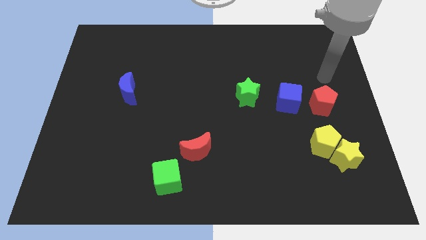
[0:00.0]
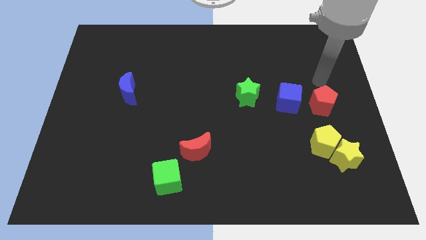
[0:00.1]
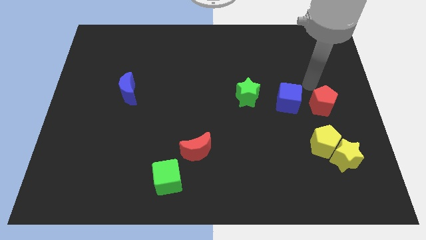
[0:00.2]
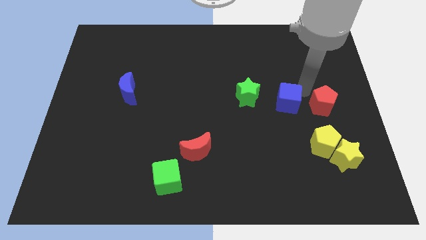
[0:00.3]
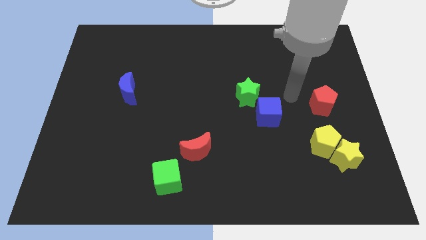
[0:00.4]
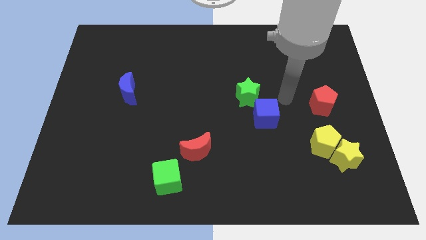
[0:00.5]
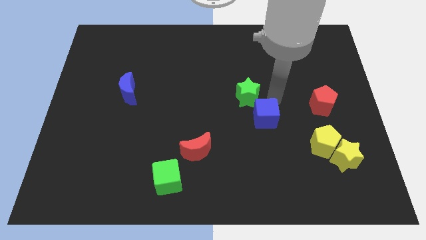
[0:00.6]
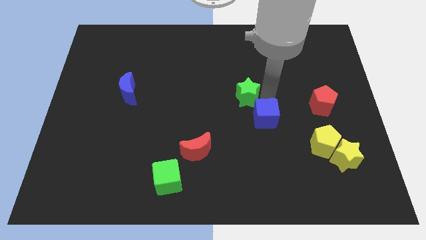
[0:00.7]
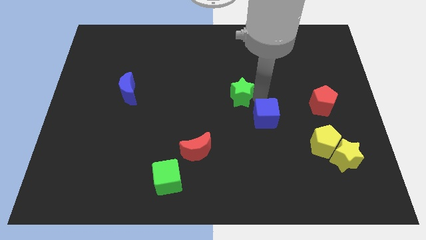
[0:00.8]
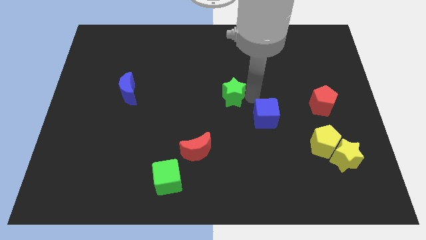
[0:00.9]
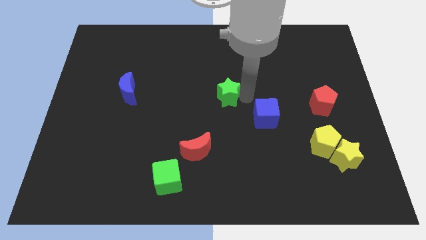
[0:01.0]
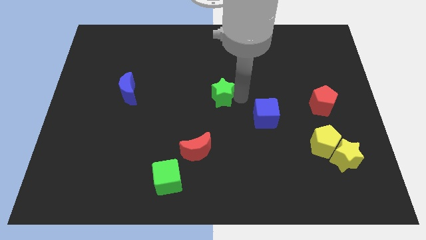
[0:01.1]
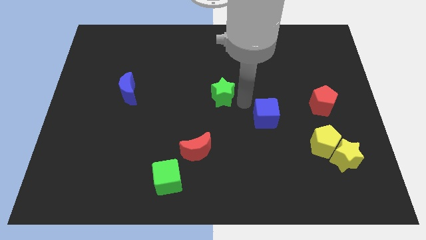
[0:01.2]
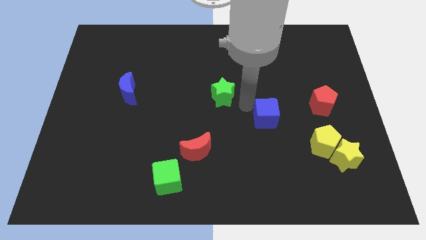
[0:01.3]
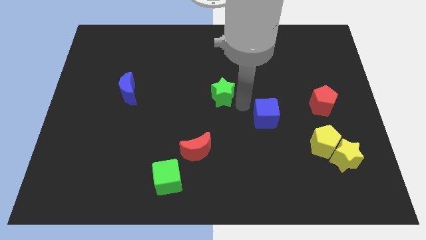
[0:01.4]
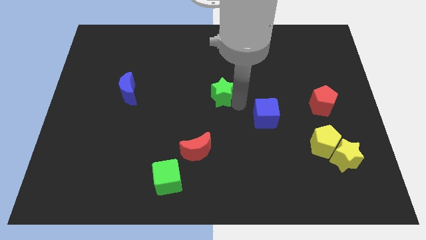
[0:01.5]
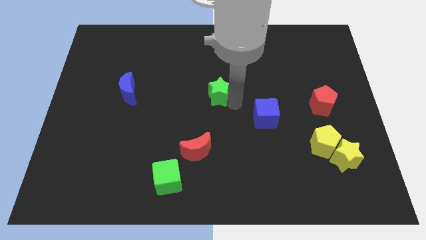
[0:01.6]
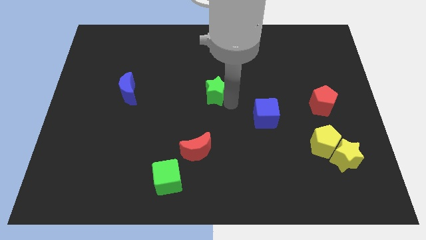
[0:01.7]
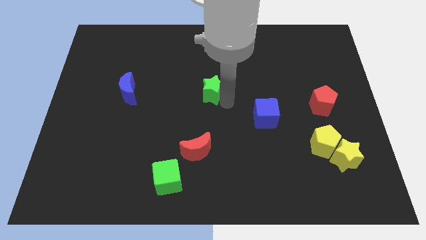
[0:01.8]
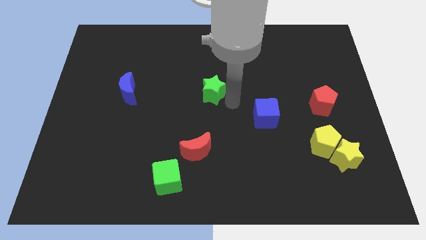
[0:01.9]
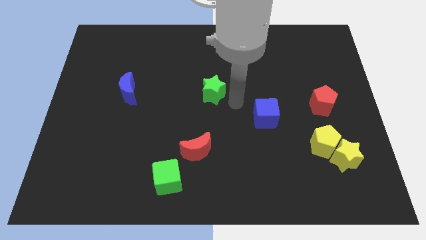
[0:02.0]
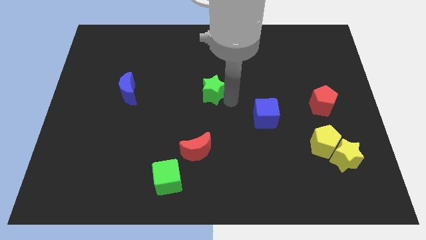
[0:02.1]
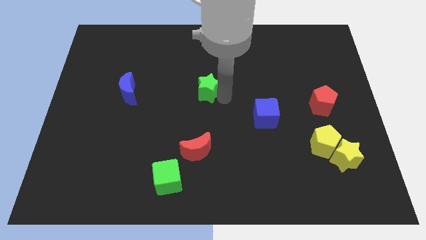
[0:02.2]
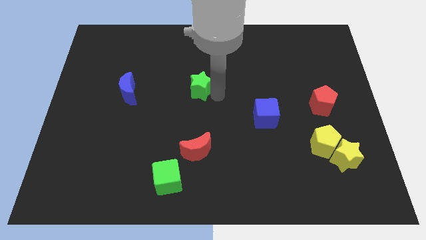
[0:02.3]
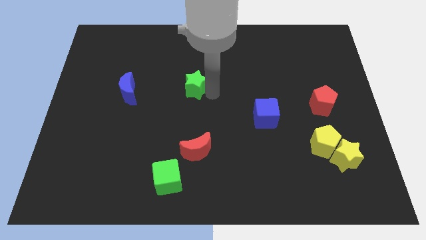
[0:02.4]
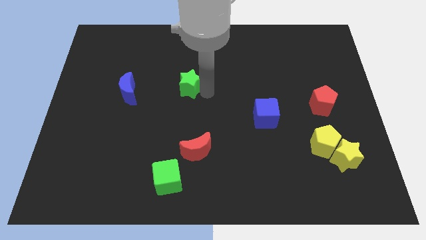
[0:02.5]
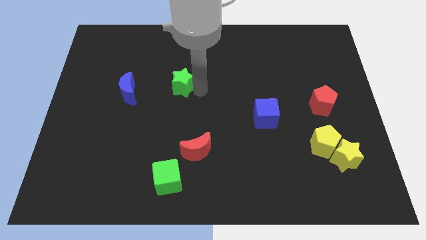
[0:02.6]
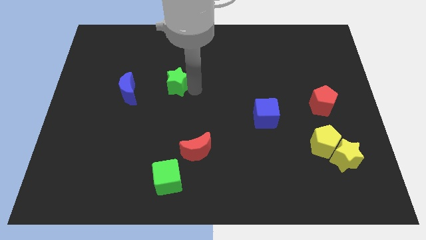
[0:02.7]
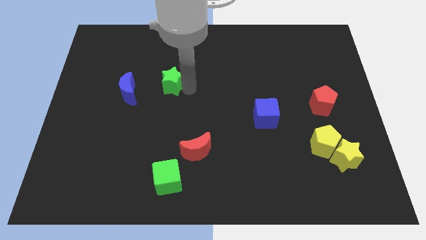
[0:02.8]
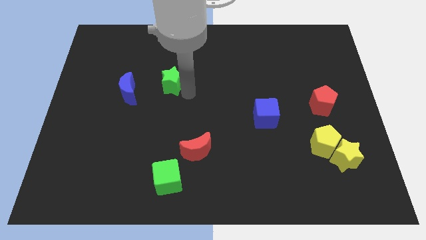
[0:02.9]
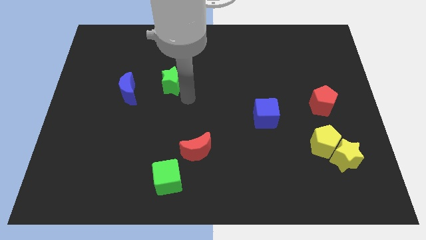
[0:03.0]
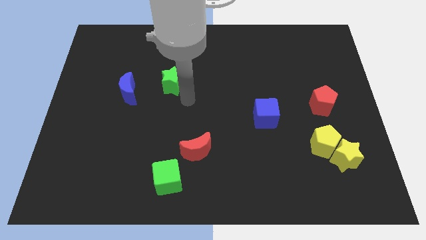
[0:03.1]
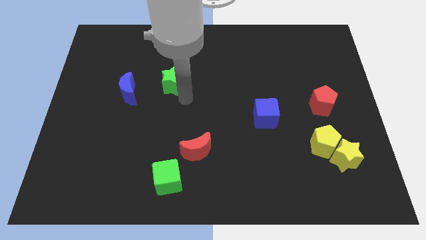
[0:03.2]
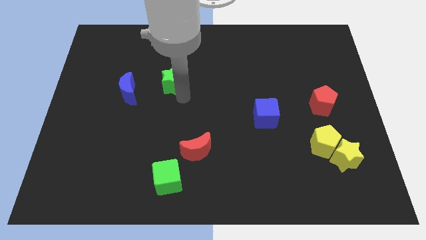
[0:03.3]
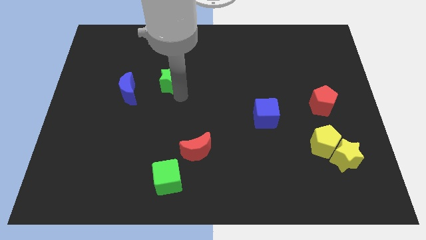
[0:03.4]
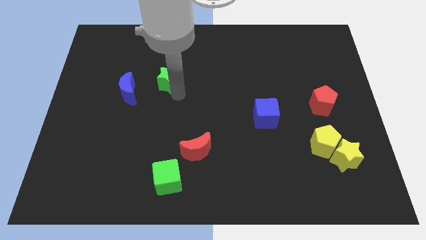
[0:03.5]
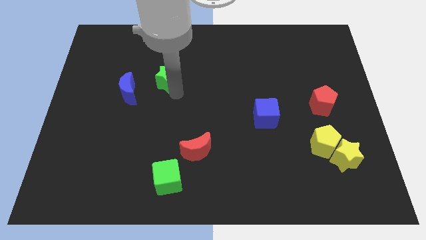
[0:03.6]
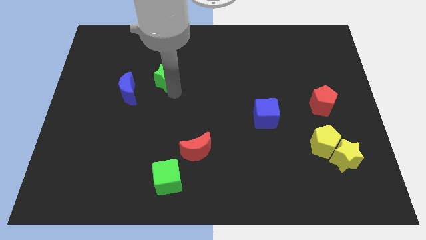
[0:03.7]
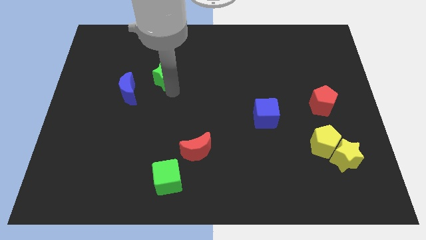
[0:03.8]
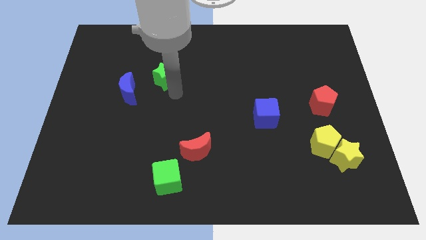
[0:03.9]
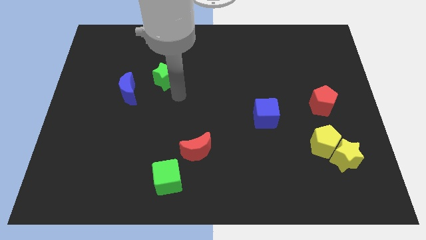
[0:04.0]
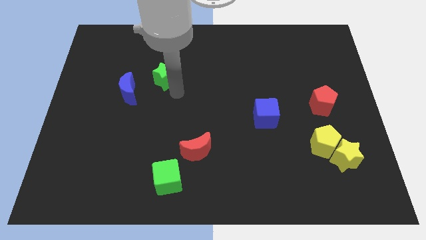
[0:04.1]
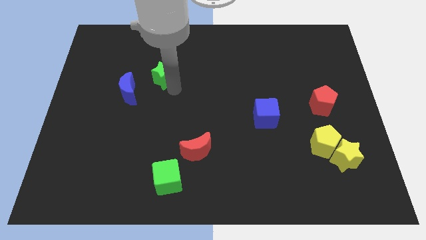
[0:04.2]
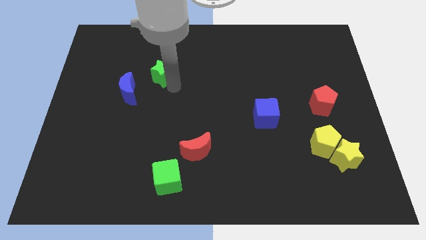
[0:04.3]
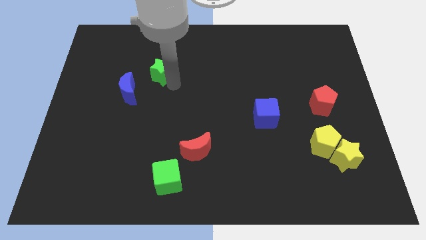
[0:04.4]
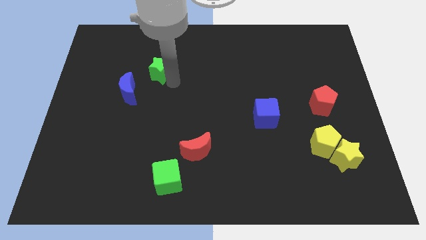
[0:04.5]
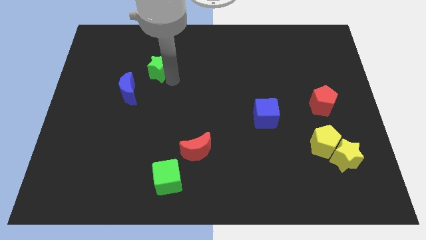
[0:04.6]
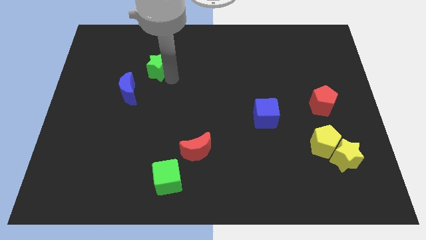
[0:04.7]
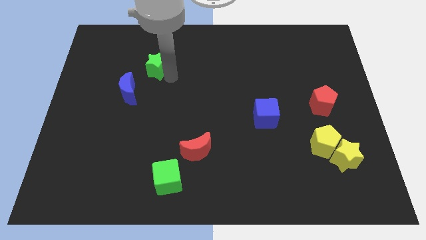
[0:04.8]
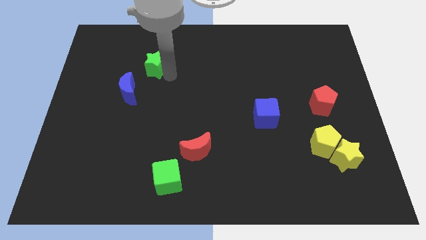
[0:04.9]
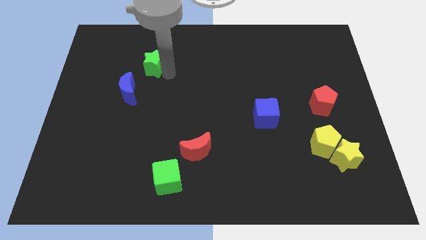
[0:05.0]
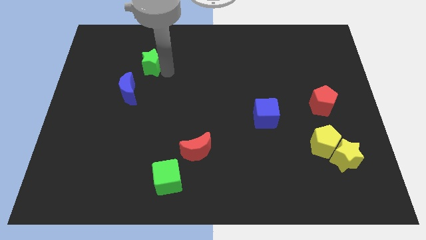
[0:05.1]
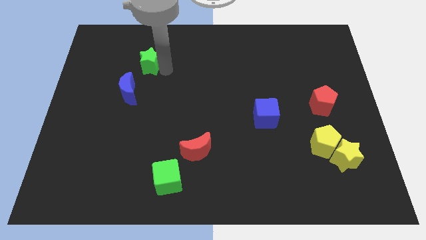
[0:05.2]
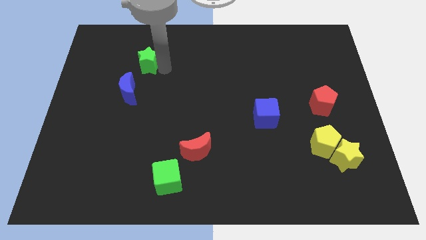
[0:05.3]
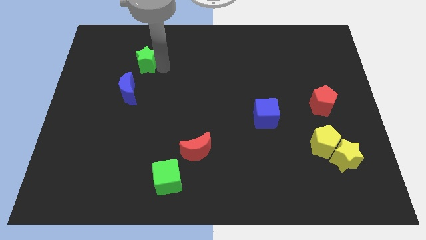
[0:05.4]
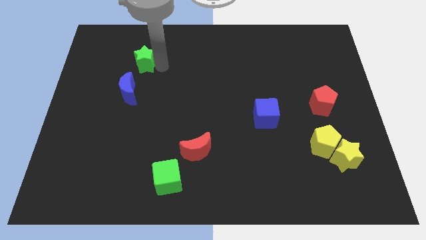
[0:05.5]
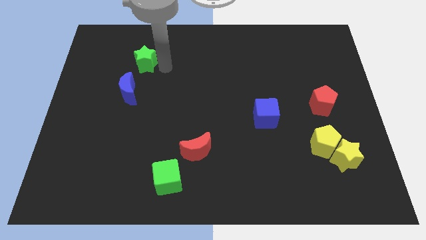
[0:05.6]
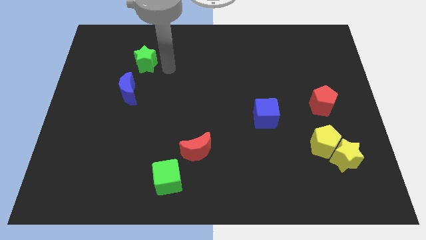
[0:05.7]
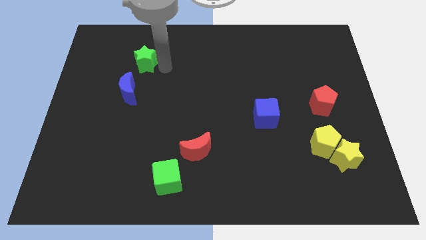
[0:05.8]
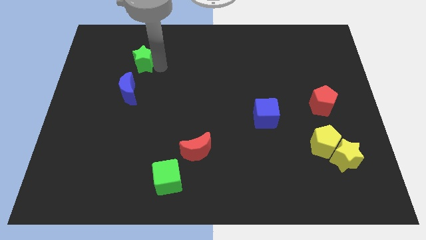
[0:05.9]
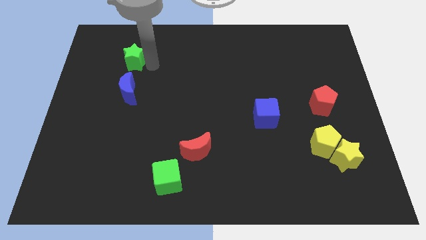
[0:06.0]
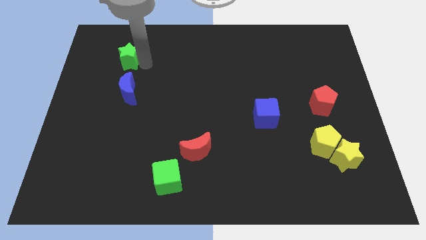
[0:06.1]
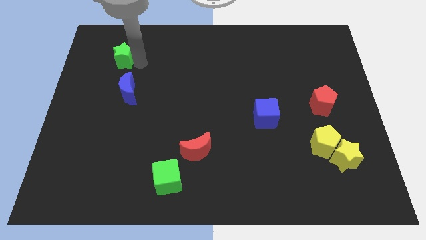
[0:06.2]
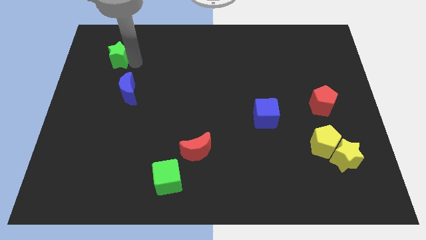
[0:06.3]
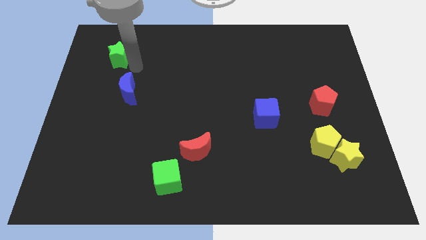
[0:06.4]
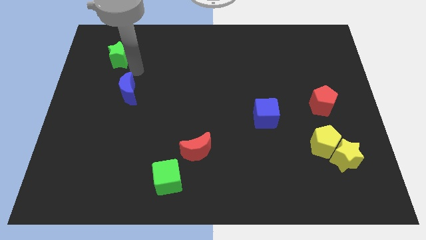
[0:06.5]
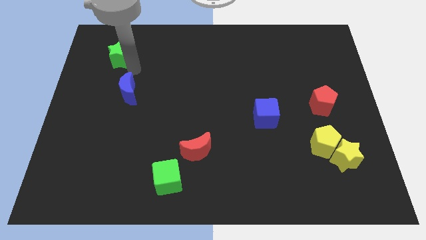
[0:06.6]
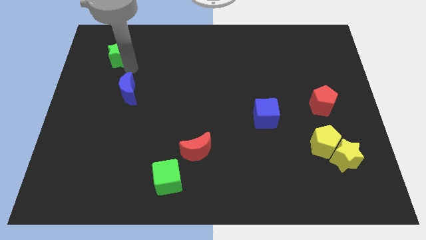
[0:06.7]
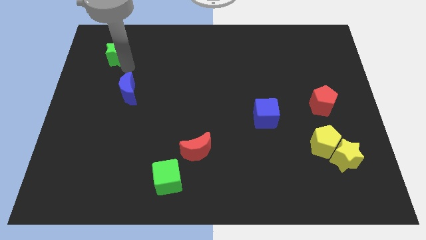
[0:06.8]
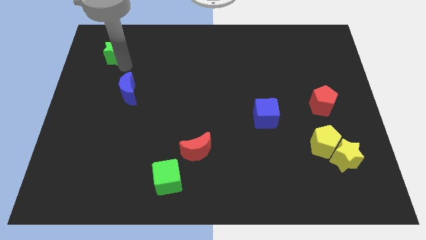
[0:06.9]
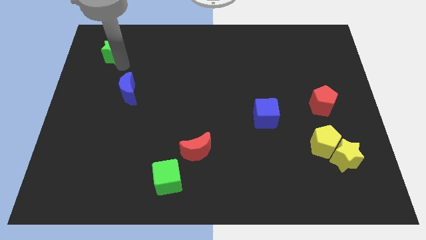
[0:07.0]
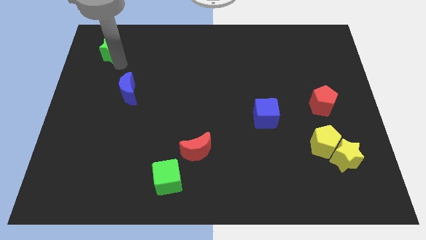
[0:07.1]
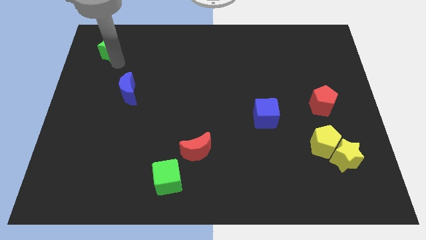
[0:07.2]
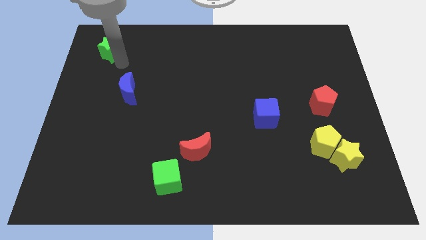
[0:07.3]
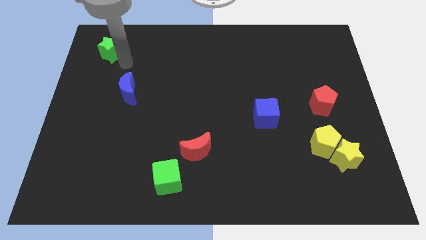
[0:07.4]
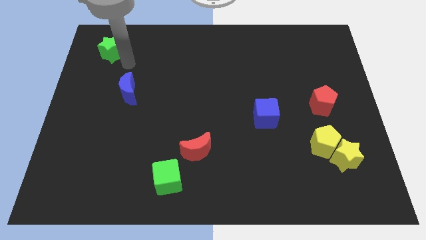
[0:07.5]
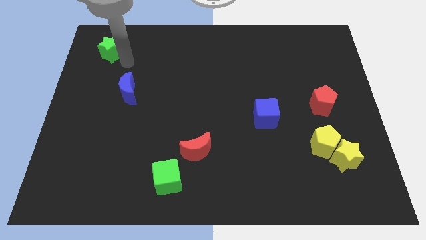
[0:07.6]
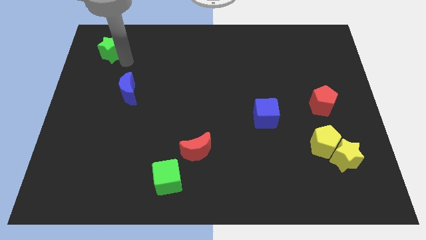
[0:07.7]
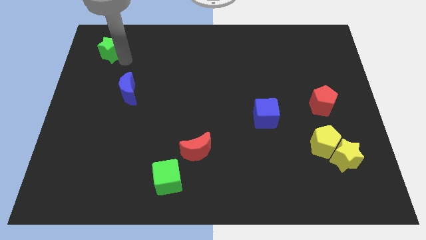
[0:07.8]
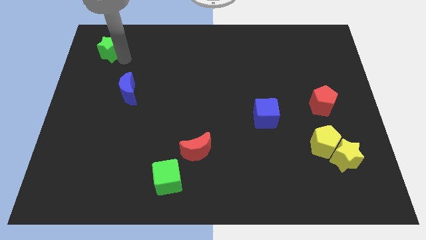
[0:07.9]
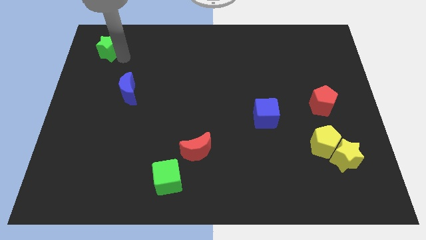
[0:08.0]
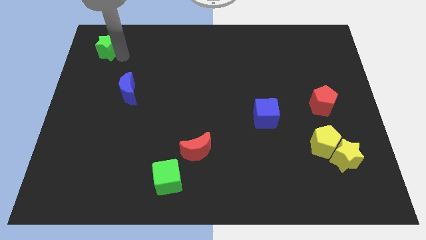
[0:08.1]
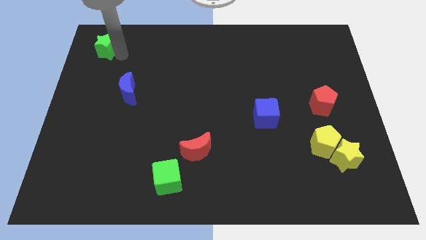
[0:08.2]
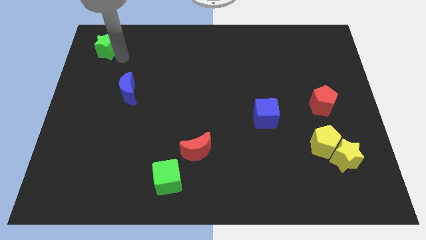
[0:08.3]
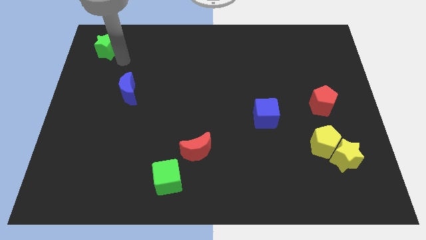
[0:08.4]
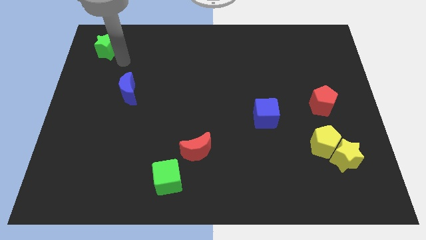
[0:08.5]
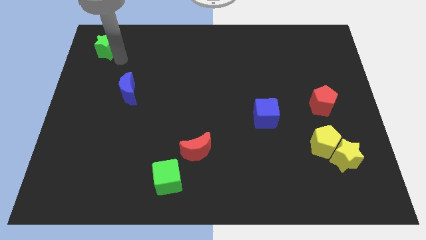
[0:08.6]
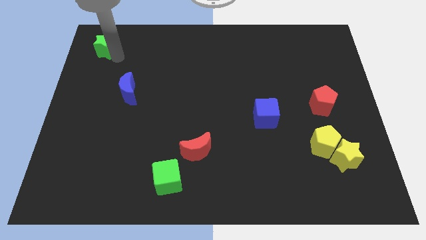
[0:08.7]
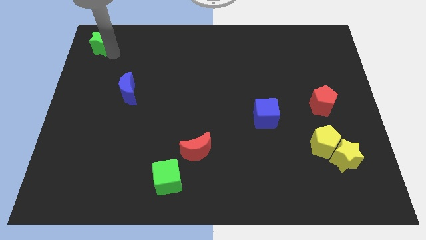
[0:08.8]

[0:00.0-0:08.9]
put the green star to the upper left corner
